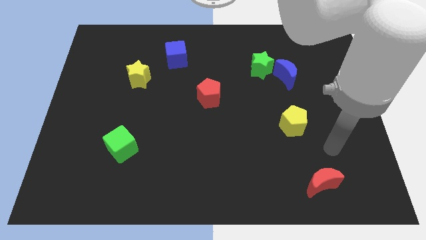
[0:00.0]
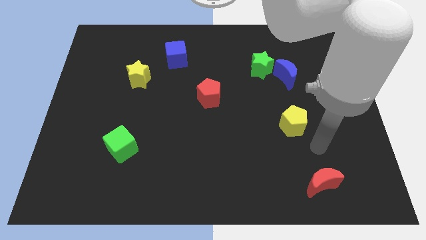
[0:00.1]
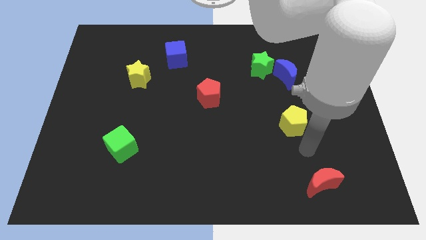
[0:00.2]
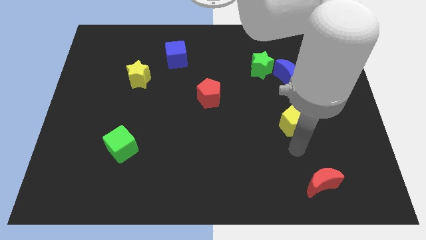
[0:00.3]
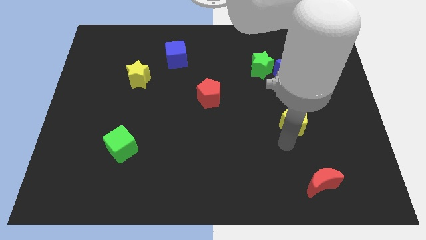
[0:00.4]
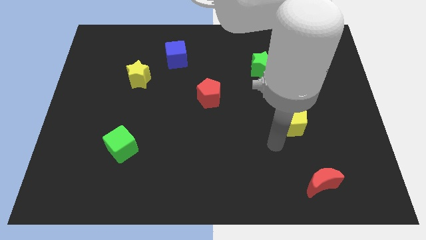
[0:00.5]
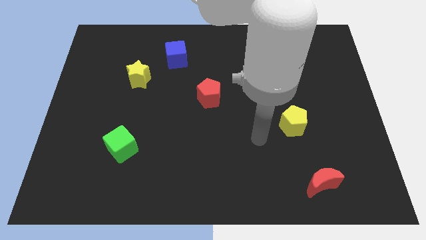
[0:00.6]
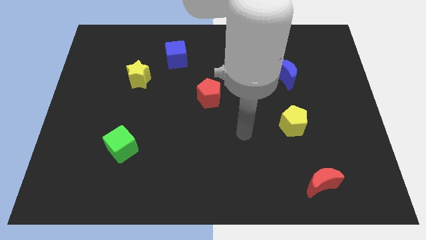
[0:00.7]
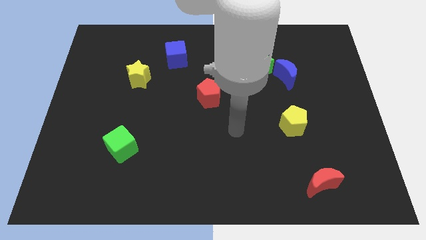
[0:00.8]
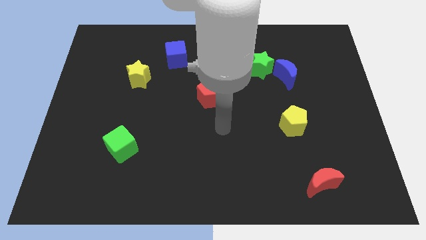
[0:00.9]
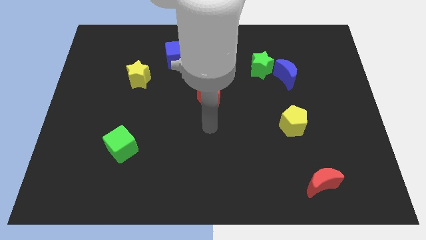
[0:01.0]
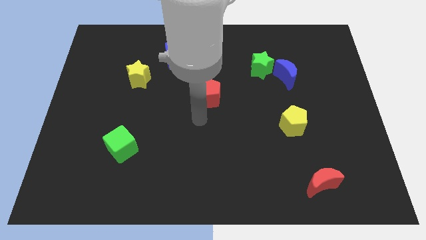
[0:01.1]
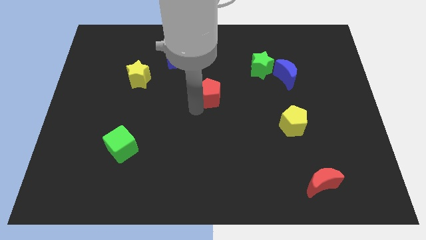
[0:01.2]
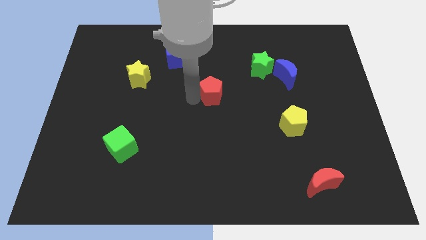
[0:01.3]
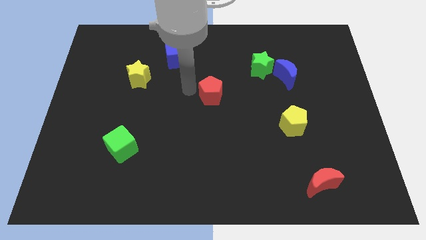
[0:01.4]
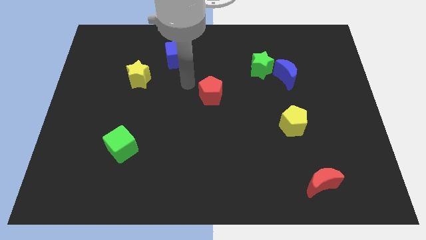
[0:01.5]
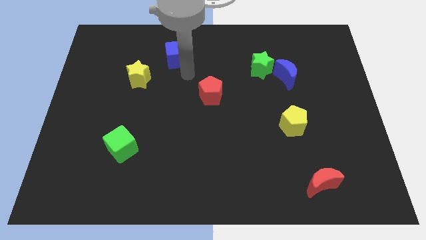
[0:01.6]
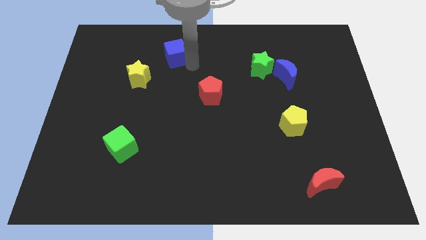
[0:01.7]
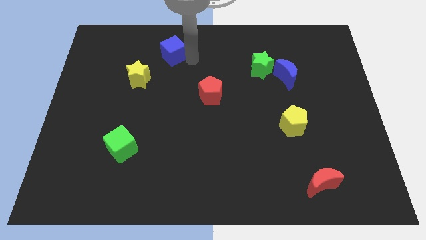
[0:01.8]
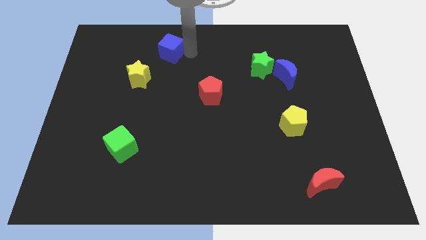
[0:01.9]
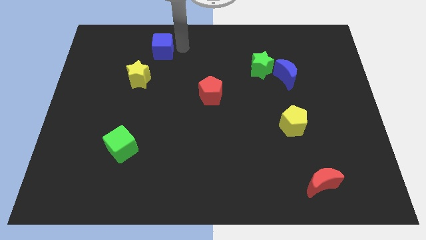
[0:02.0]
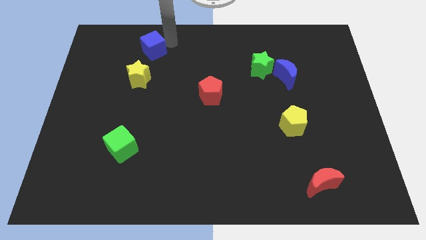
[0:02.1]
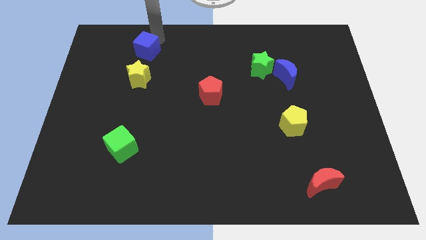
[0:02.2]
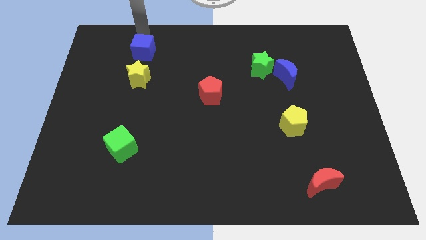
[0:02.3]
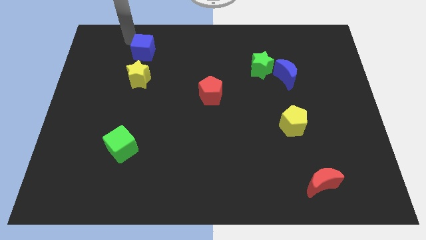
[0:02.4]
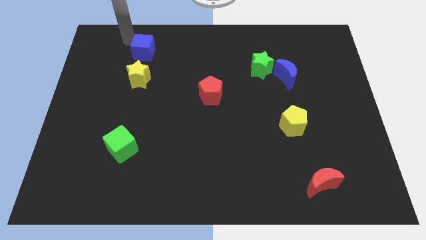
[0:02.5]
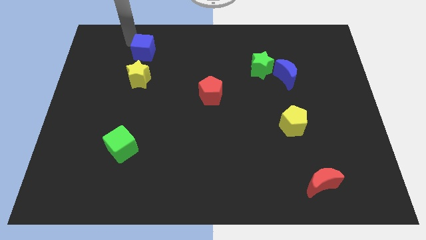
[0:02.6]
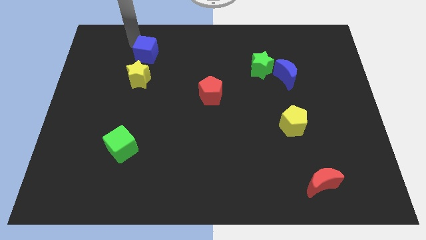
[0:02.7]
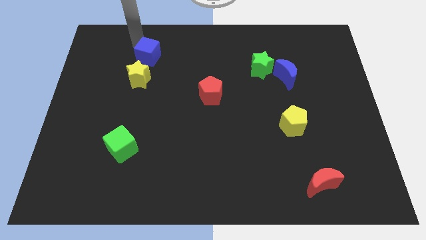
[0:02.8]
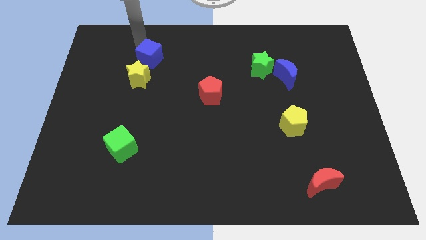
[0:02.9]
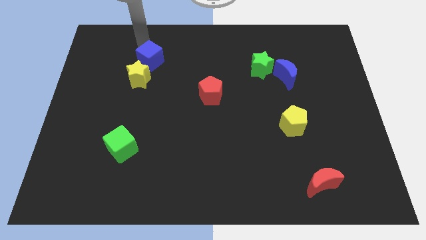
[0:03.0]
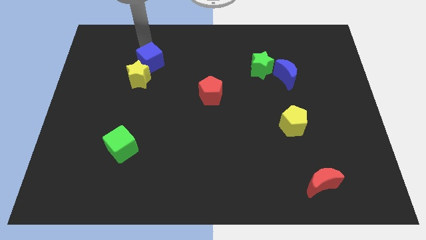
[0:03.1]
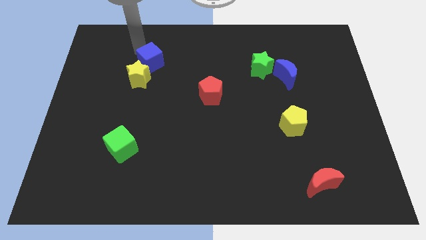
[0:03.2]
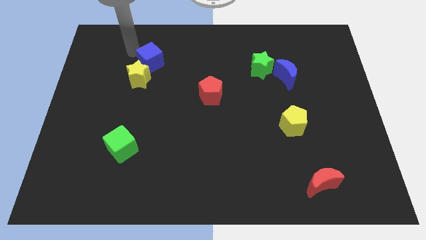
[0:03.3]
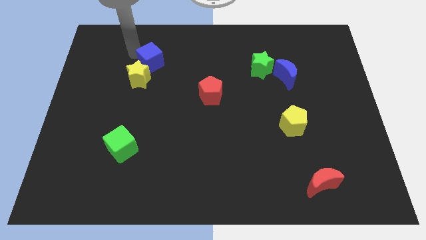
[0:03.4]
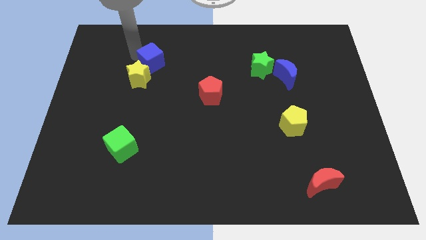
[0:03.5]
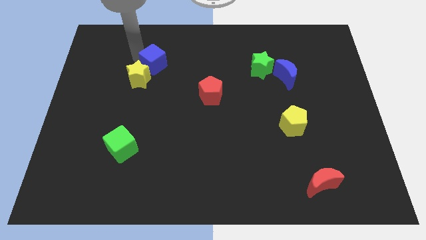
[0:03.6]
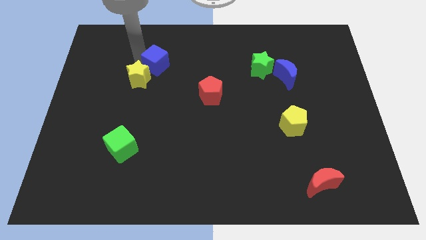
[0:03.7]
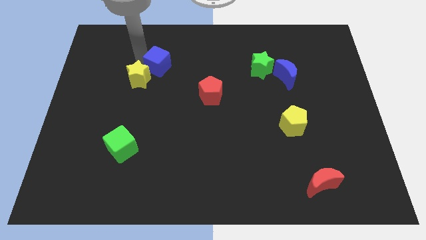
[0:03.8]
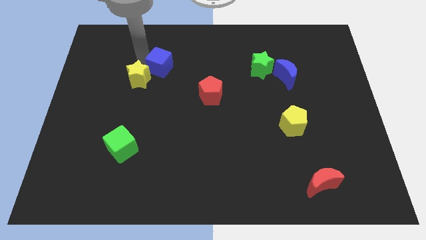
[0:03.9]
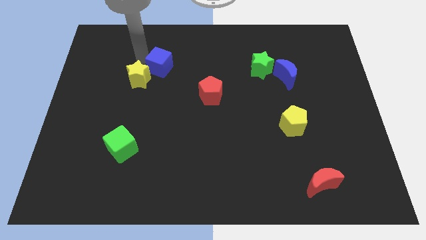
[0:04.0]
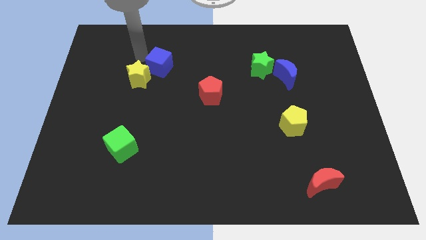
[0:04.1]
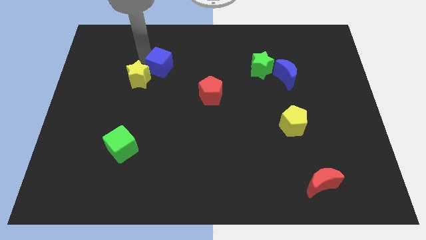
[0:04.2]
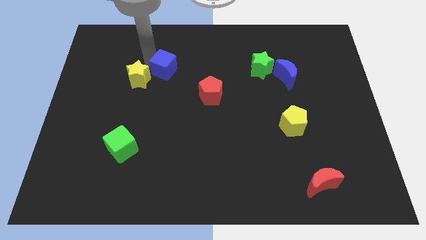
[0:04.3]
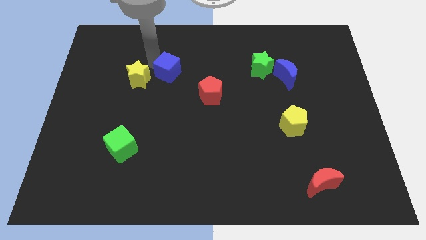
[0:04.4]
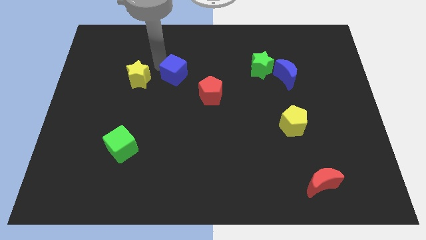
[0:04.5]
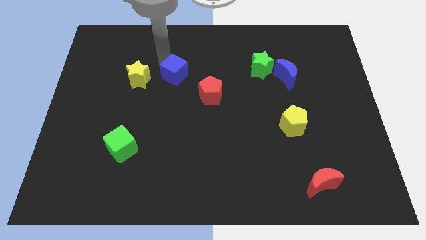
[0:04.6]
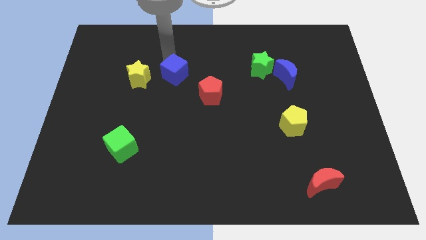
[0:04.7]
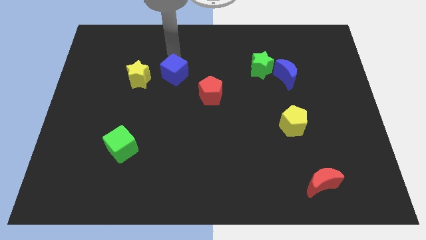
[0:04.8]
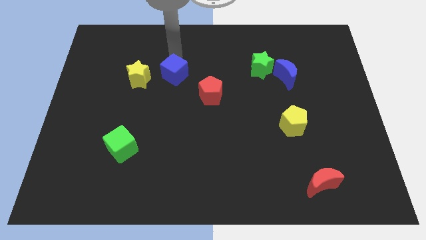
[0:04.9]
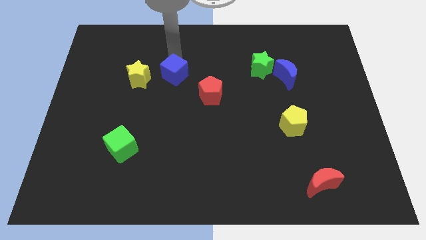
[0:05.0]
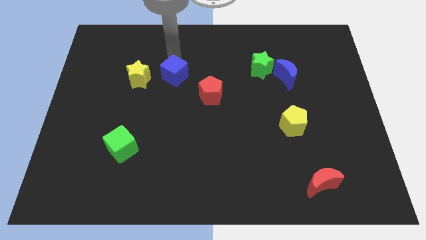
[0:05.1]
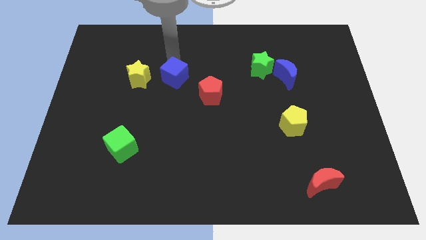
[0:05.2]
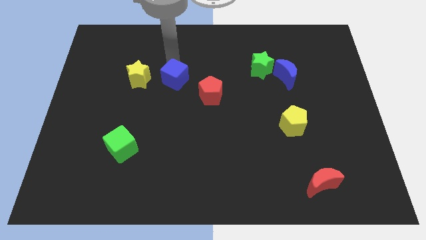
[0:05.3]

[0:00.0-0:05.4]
move the blue cube downwards a bit

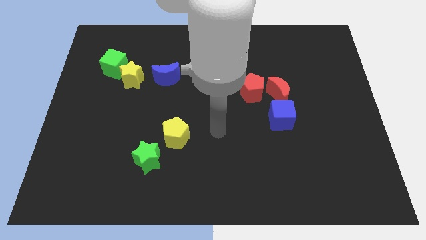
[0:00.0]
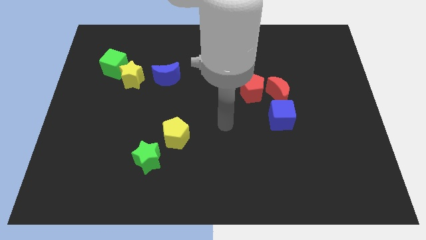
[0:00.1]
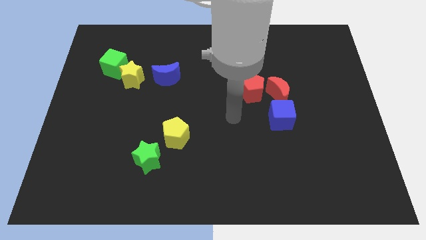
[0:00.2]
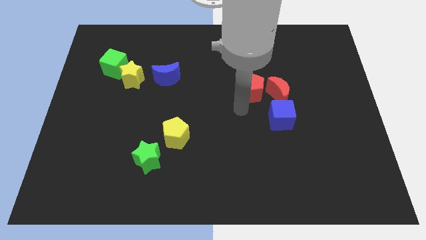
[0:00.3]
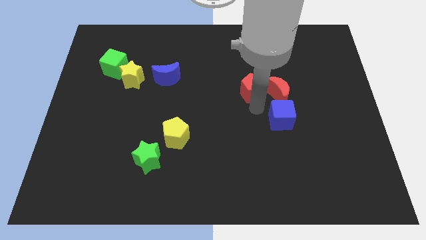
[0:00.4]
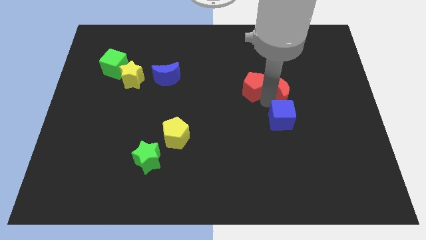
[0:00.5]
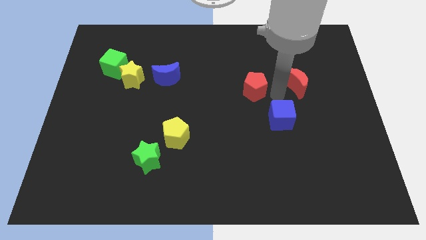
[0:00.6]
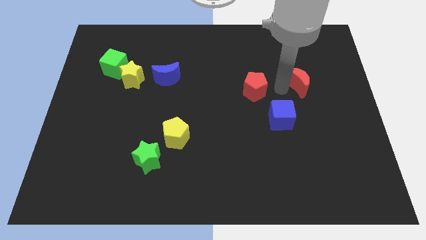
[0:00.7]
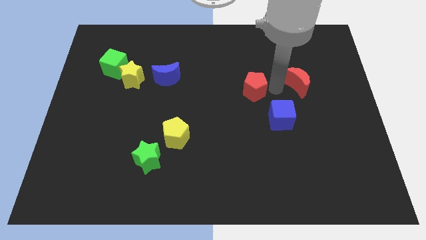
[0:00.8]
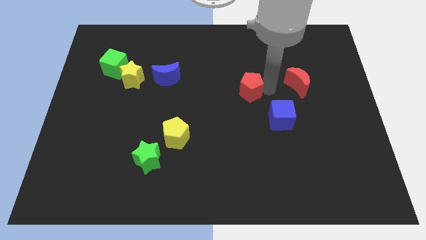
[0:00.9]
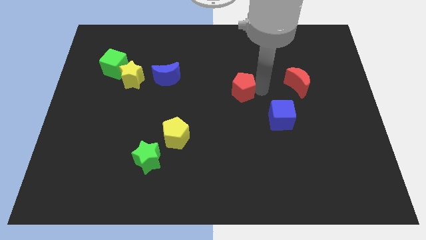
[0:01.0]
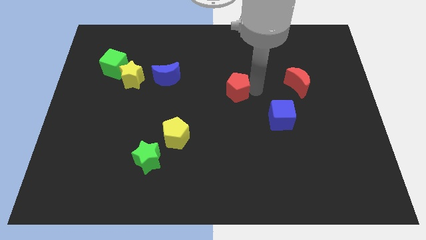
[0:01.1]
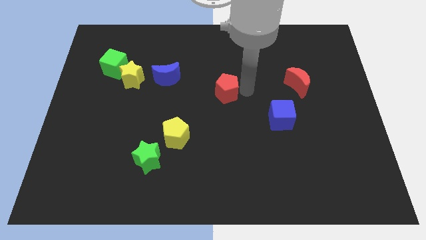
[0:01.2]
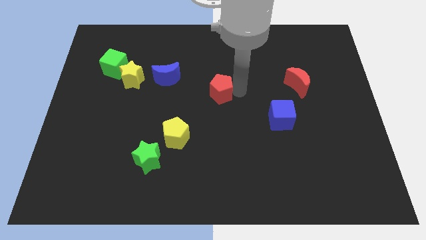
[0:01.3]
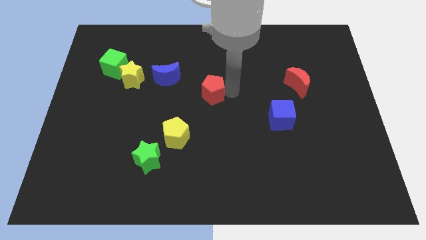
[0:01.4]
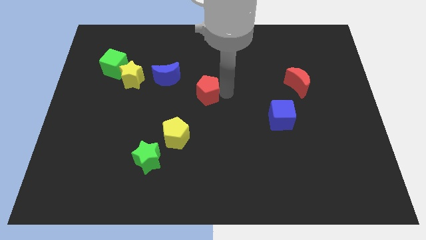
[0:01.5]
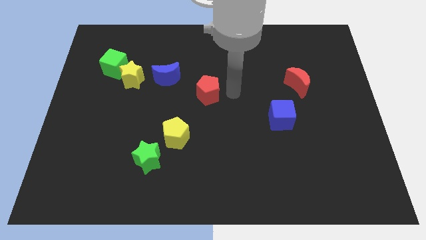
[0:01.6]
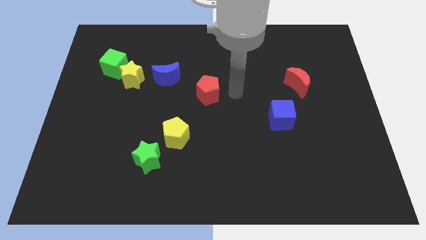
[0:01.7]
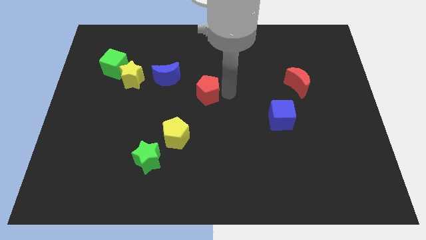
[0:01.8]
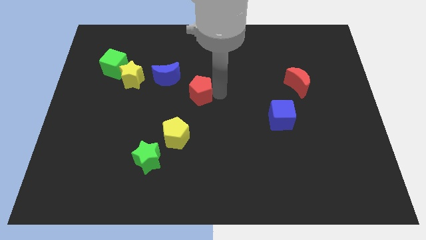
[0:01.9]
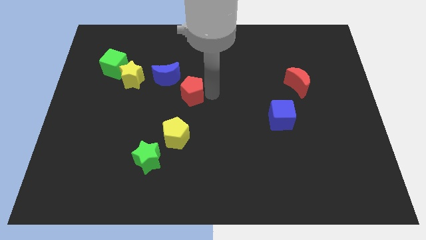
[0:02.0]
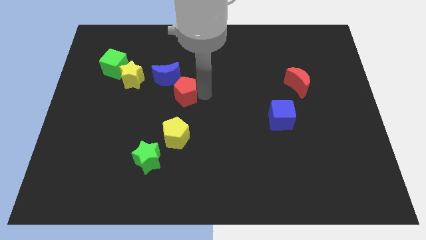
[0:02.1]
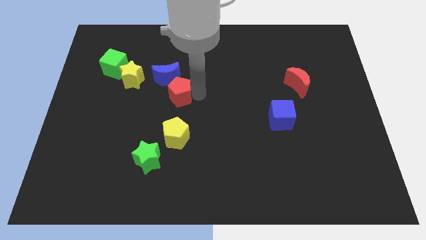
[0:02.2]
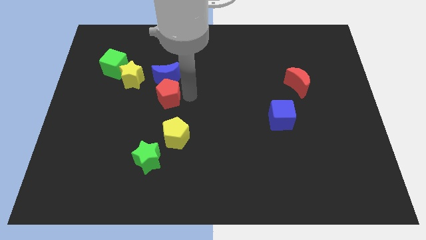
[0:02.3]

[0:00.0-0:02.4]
slide the red pentagon left
